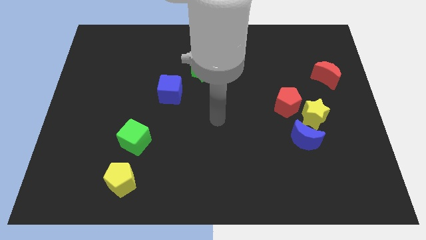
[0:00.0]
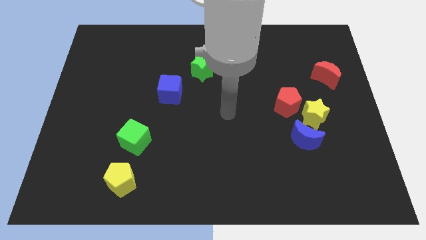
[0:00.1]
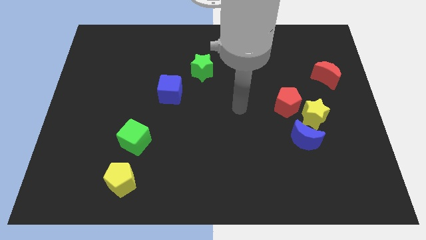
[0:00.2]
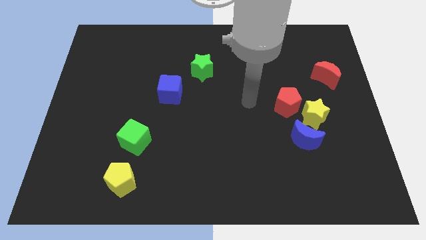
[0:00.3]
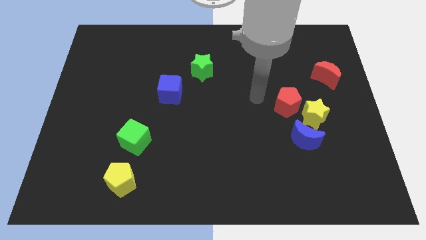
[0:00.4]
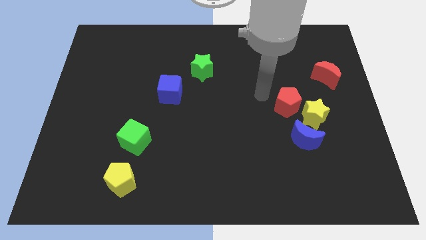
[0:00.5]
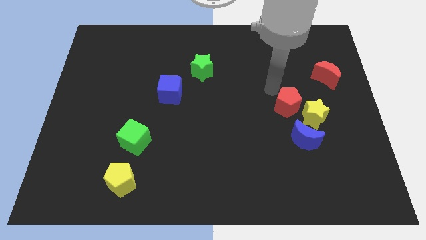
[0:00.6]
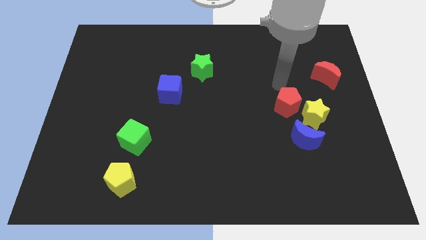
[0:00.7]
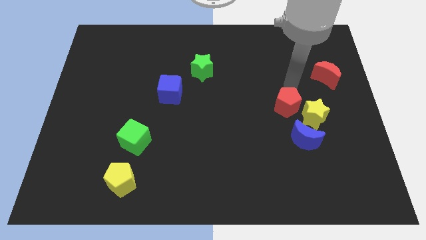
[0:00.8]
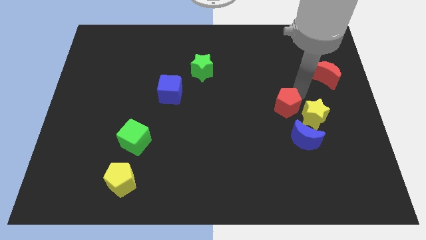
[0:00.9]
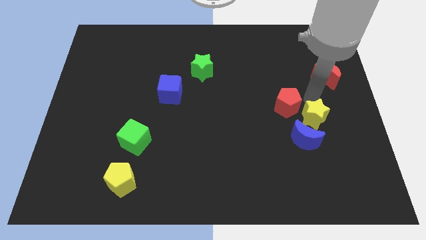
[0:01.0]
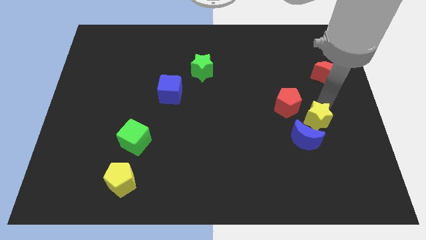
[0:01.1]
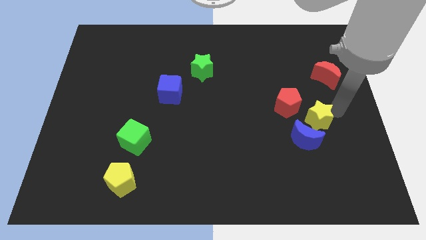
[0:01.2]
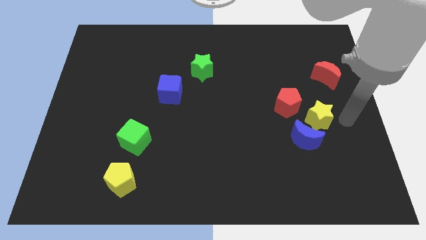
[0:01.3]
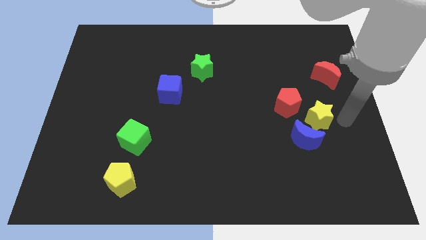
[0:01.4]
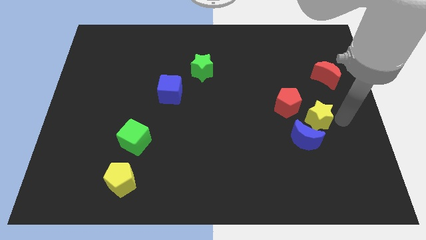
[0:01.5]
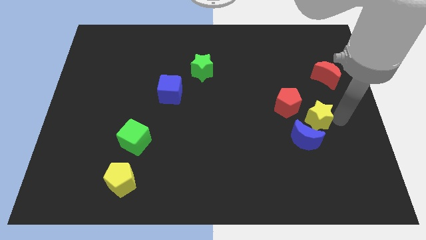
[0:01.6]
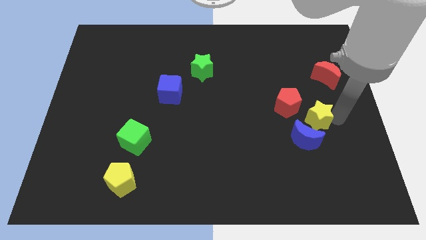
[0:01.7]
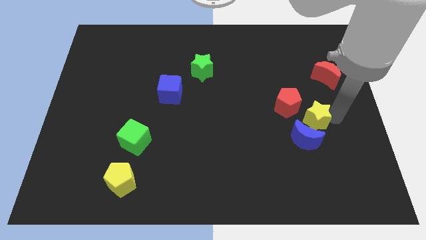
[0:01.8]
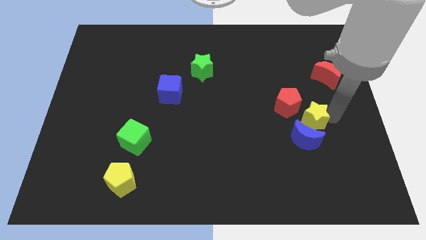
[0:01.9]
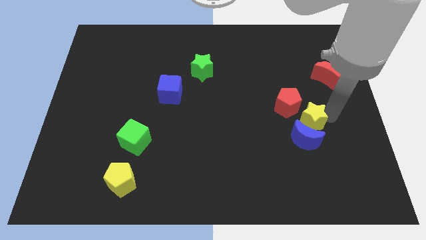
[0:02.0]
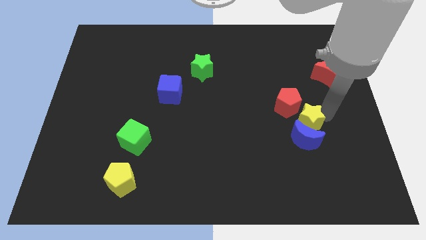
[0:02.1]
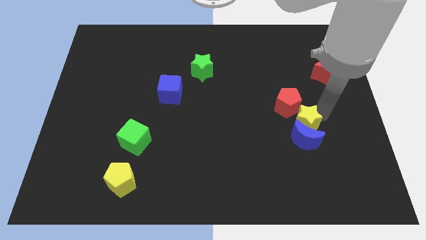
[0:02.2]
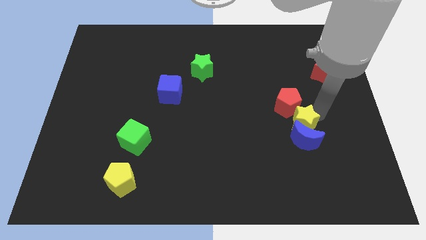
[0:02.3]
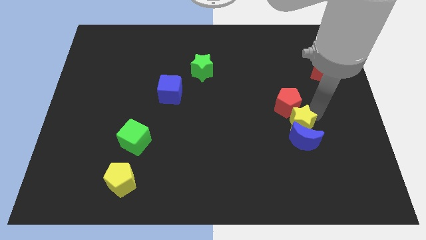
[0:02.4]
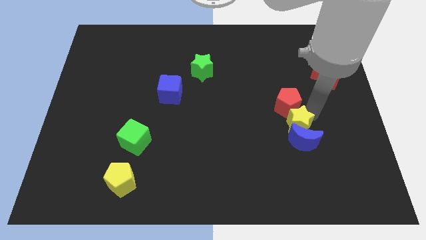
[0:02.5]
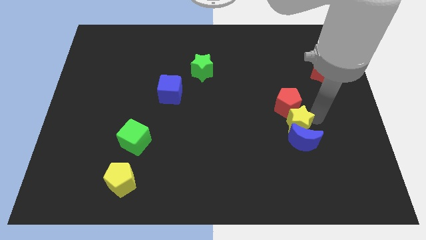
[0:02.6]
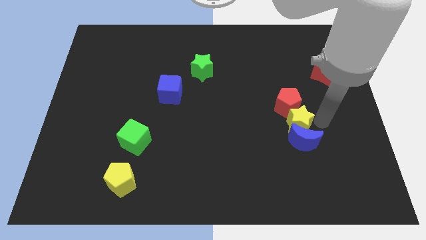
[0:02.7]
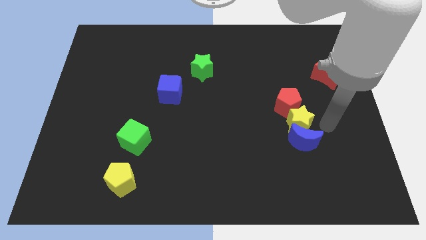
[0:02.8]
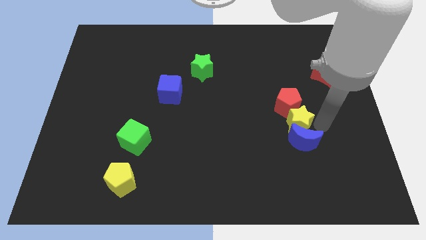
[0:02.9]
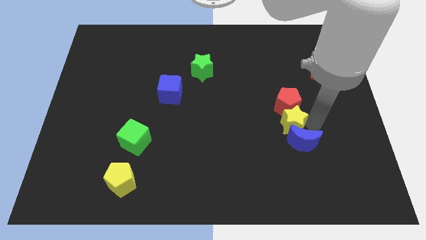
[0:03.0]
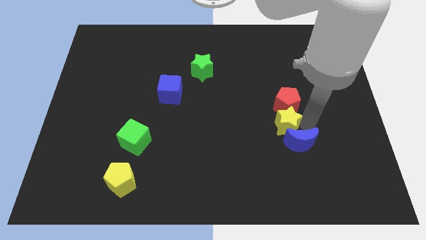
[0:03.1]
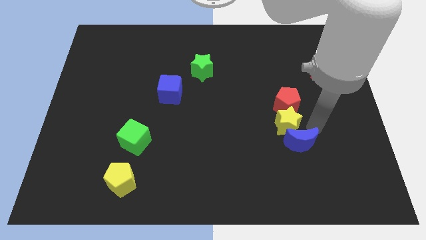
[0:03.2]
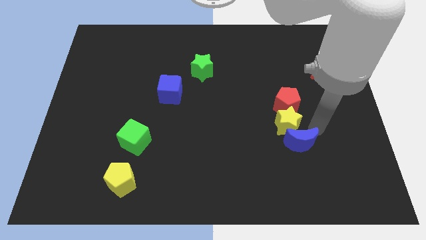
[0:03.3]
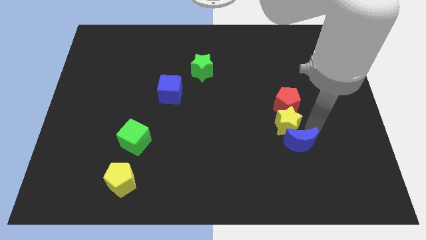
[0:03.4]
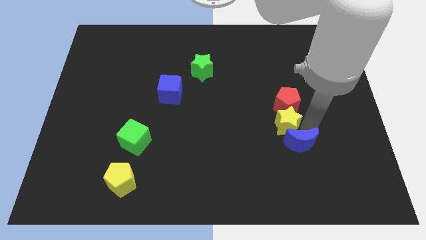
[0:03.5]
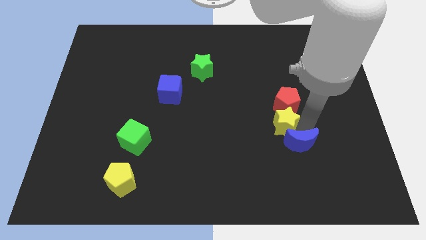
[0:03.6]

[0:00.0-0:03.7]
slide the yellow star left a little

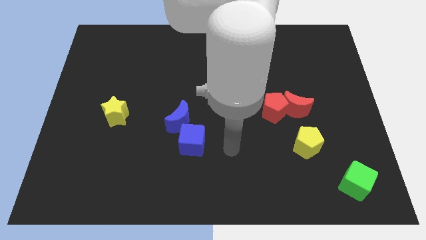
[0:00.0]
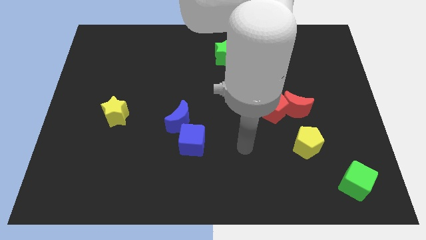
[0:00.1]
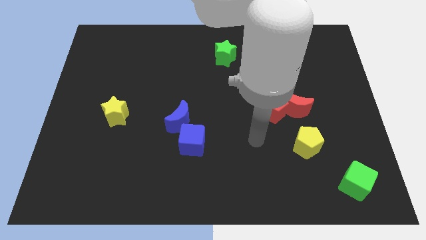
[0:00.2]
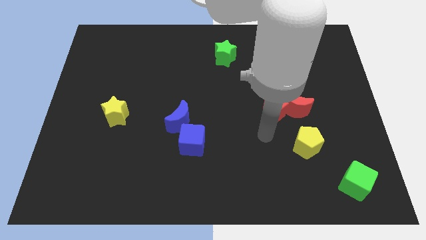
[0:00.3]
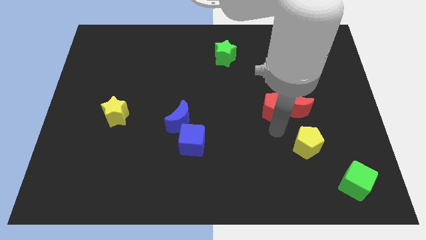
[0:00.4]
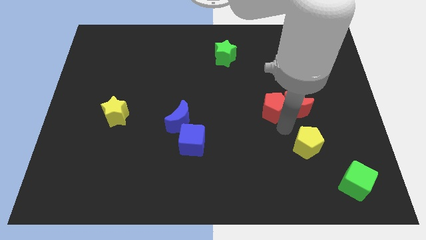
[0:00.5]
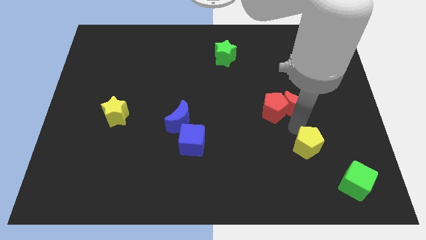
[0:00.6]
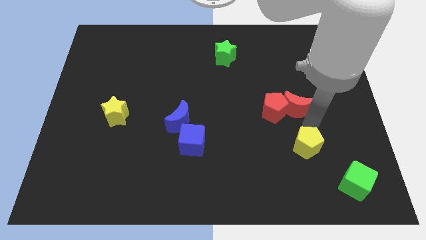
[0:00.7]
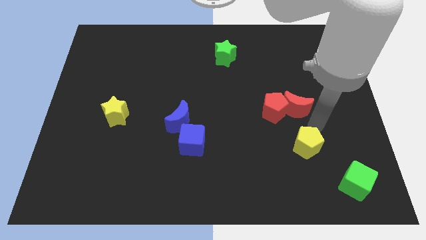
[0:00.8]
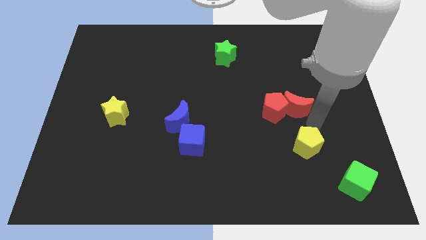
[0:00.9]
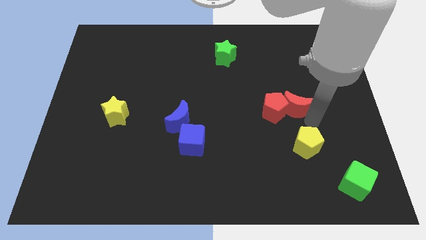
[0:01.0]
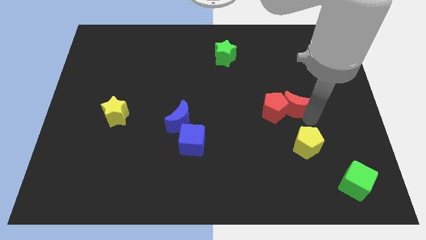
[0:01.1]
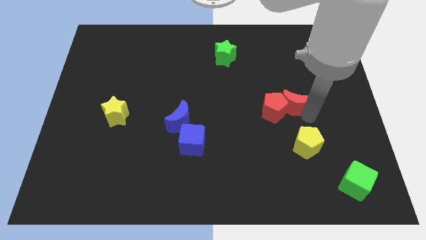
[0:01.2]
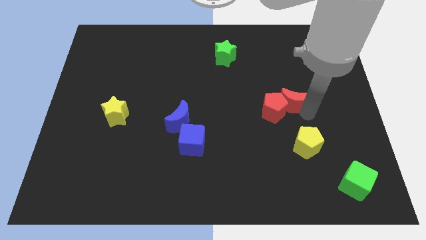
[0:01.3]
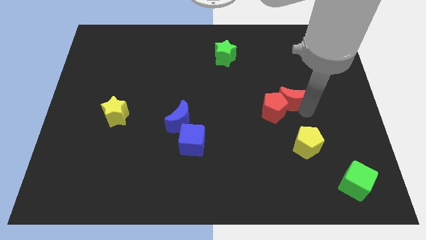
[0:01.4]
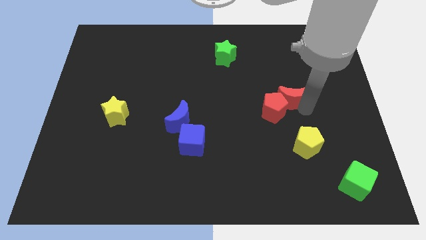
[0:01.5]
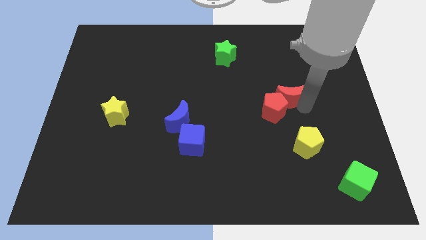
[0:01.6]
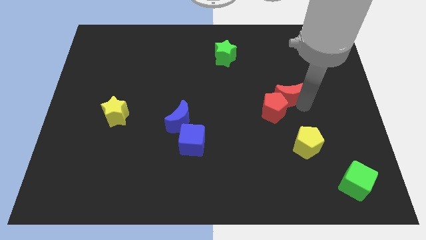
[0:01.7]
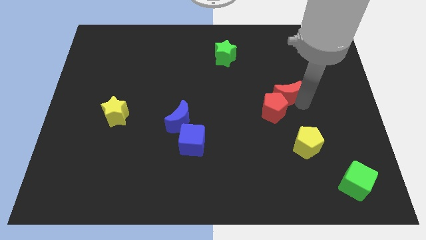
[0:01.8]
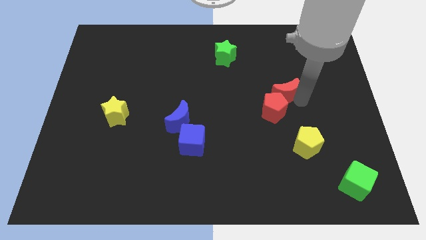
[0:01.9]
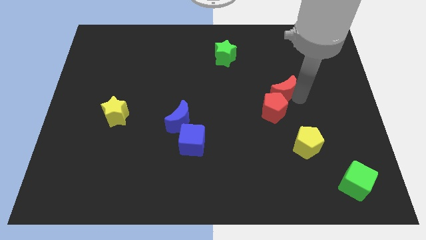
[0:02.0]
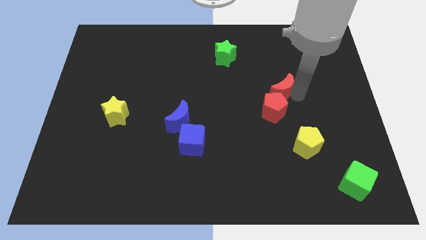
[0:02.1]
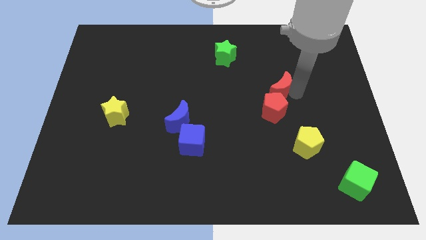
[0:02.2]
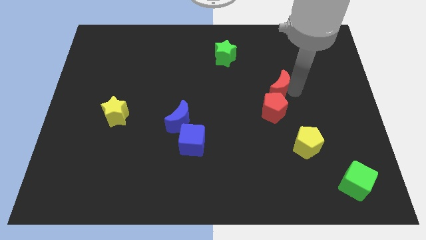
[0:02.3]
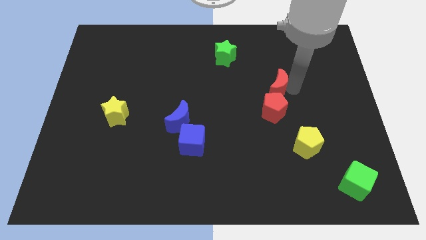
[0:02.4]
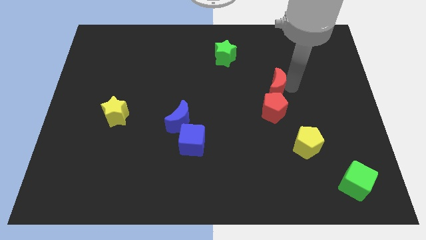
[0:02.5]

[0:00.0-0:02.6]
move the red moon a bit diagonally up and to the left

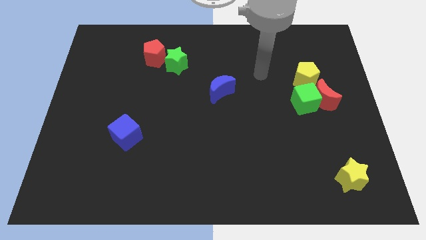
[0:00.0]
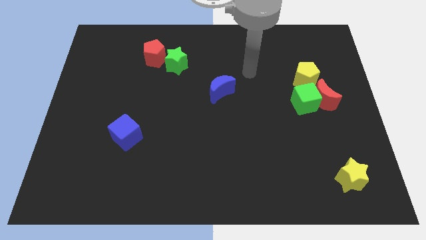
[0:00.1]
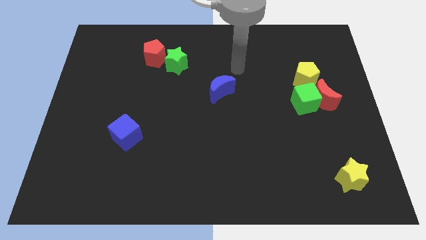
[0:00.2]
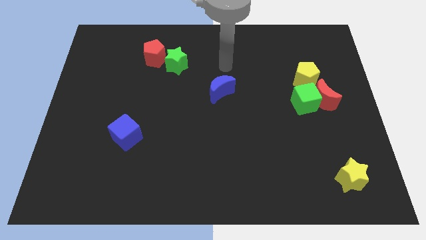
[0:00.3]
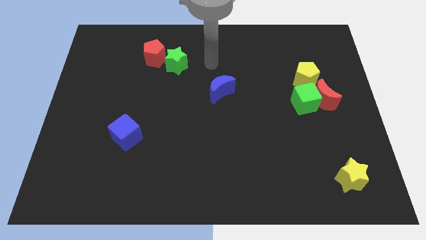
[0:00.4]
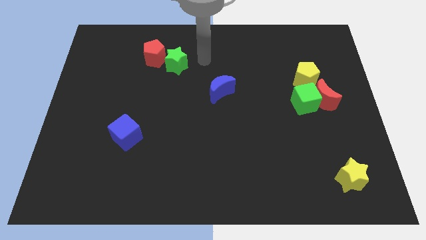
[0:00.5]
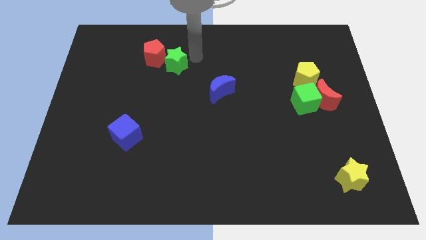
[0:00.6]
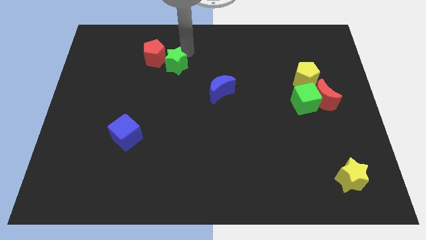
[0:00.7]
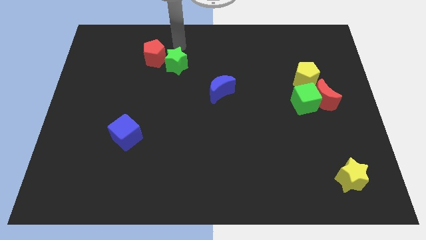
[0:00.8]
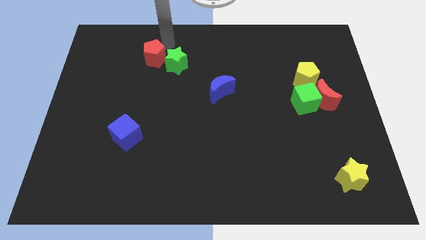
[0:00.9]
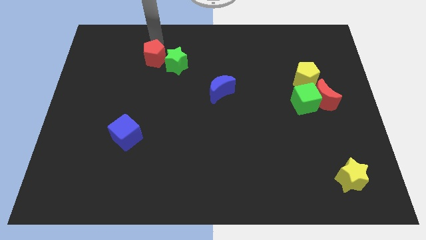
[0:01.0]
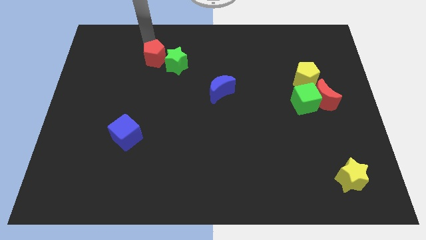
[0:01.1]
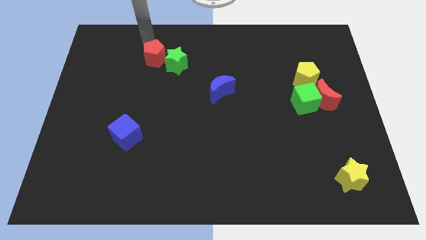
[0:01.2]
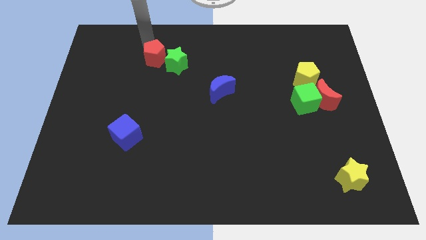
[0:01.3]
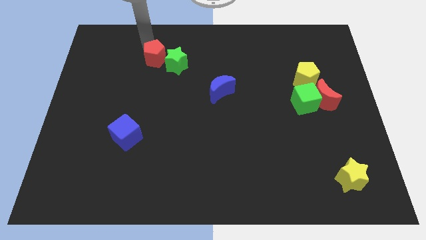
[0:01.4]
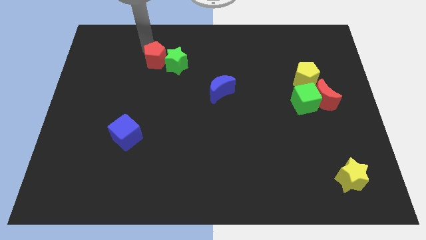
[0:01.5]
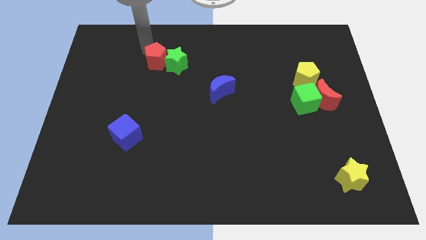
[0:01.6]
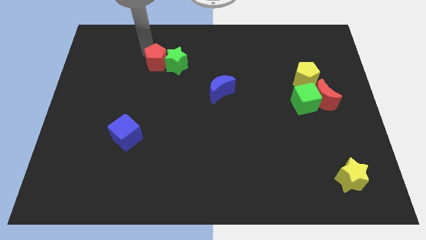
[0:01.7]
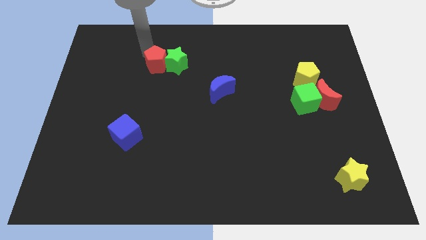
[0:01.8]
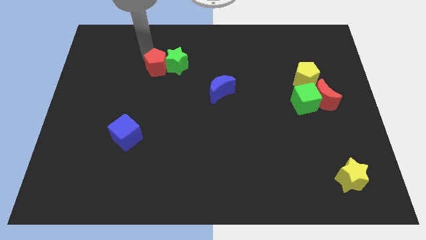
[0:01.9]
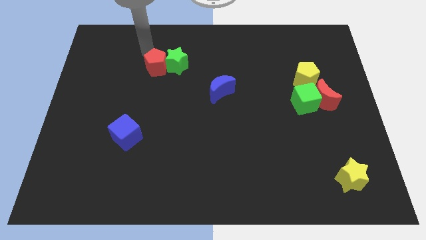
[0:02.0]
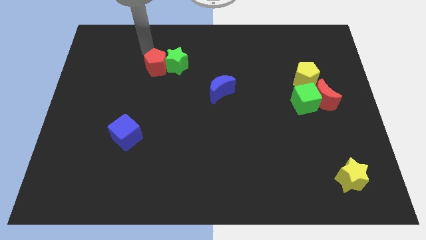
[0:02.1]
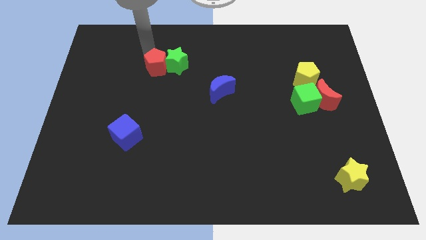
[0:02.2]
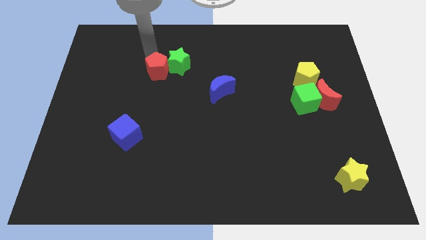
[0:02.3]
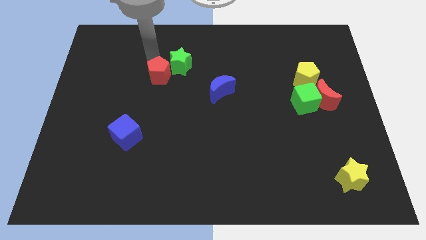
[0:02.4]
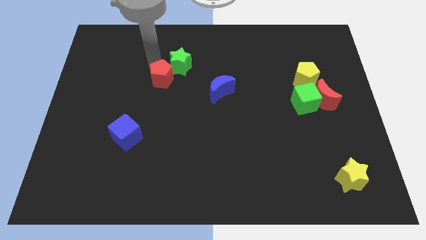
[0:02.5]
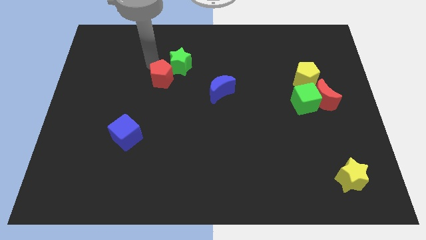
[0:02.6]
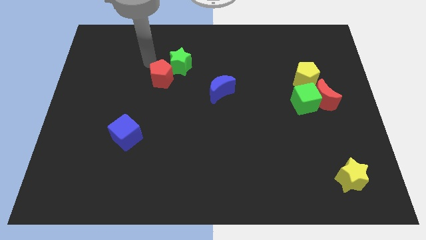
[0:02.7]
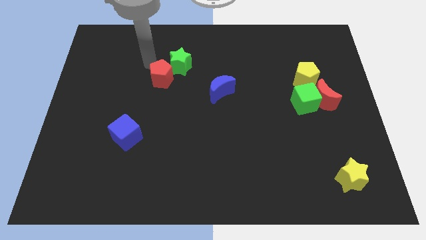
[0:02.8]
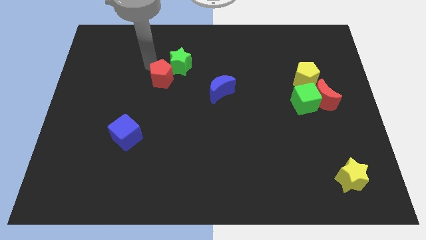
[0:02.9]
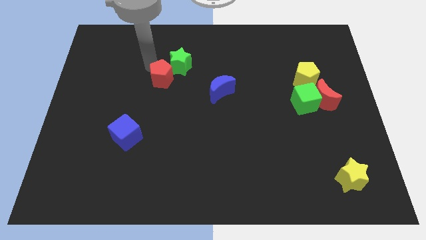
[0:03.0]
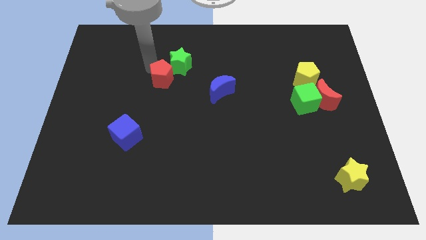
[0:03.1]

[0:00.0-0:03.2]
push the red pentagon a bit down and right
